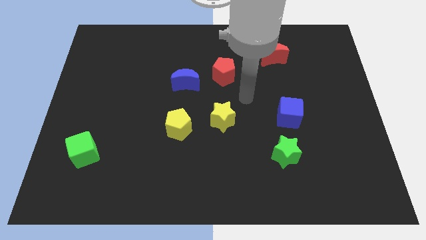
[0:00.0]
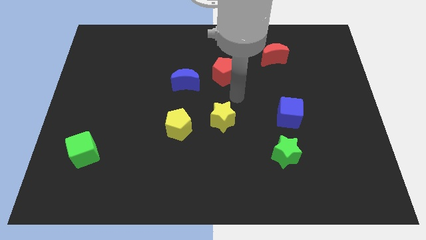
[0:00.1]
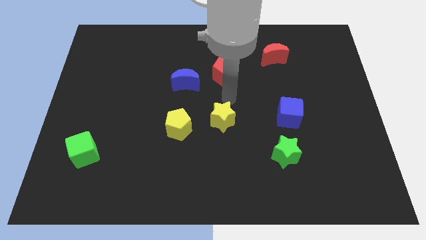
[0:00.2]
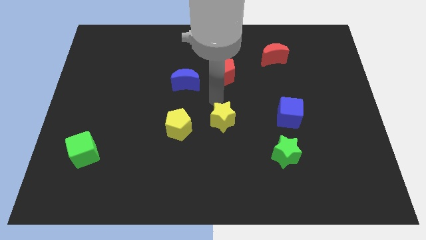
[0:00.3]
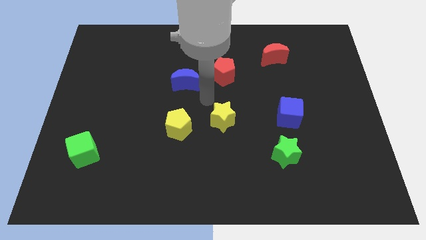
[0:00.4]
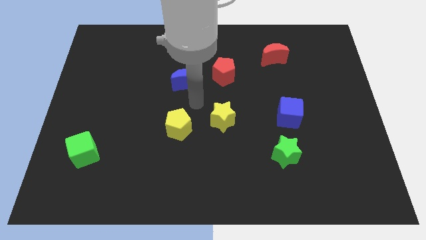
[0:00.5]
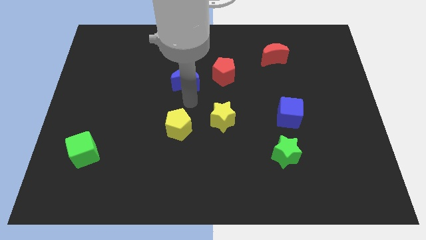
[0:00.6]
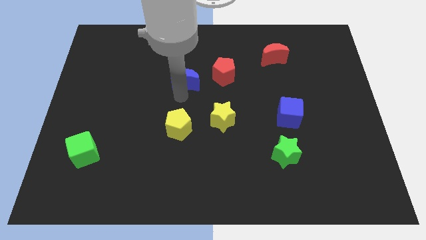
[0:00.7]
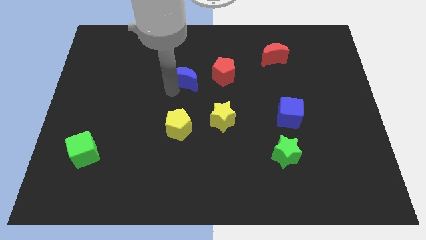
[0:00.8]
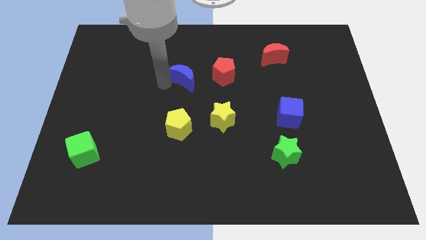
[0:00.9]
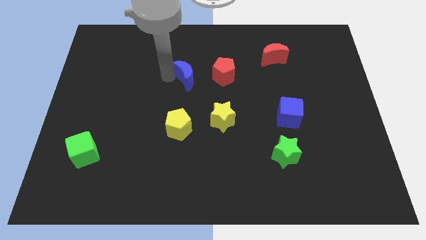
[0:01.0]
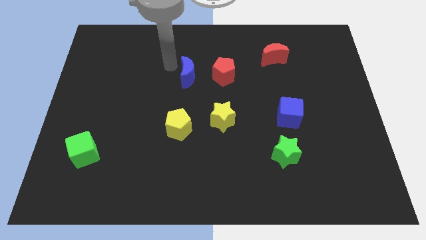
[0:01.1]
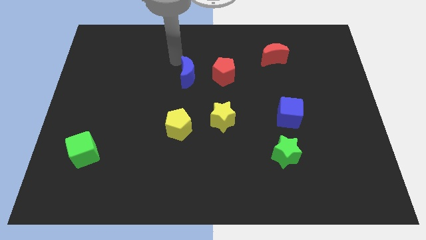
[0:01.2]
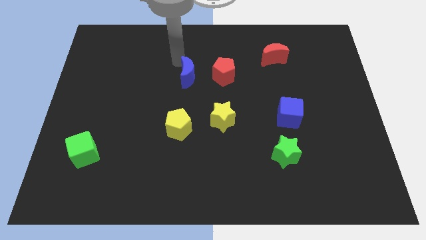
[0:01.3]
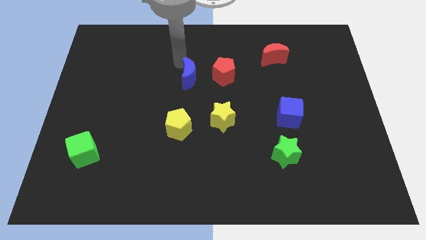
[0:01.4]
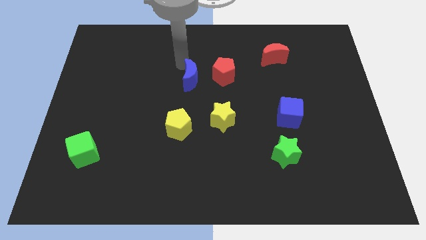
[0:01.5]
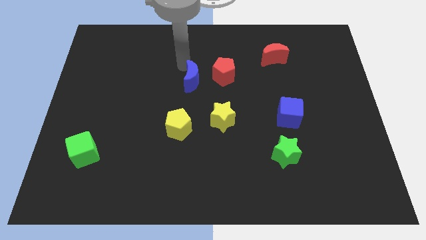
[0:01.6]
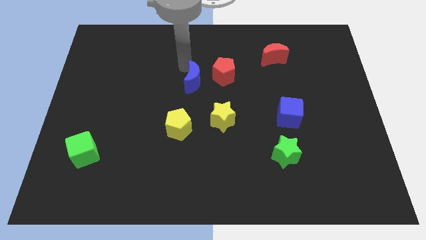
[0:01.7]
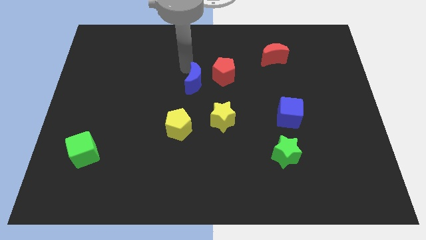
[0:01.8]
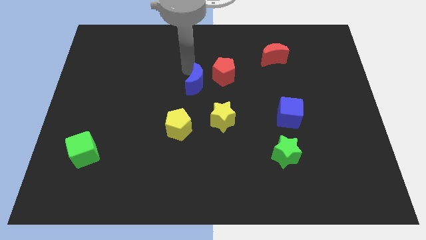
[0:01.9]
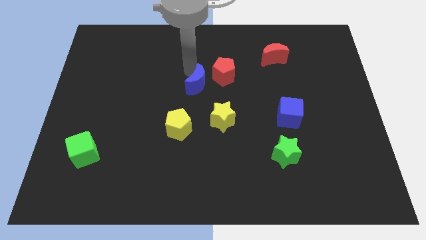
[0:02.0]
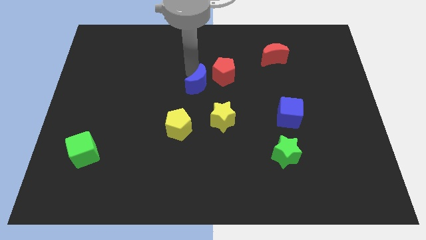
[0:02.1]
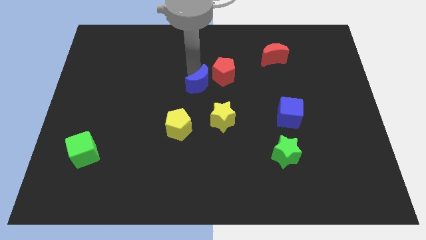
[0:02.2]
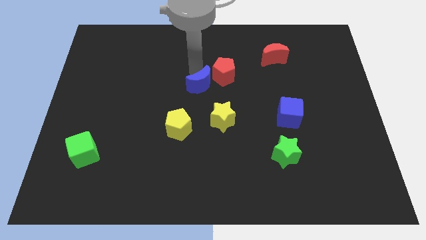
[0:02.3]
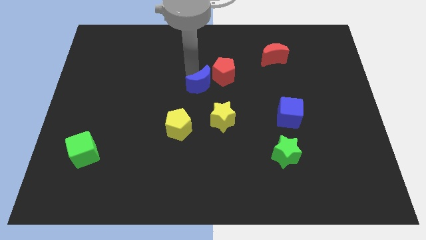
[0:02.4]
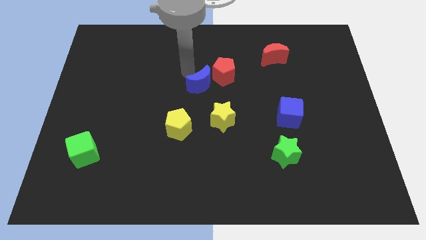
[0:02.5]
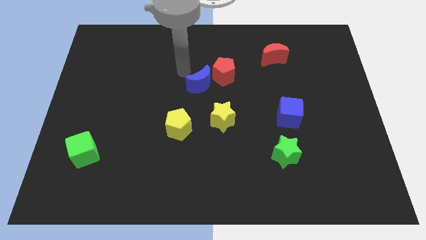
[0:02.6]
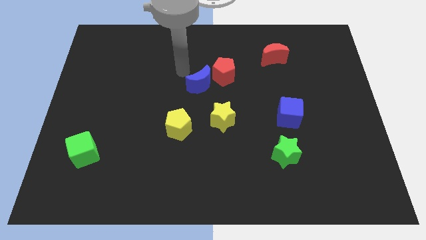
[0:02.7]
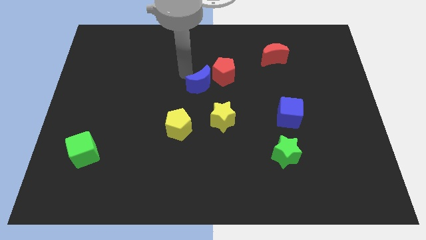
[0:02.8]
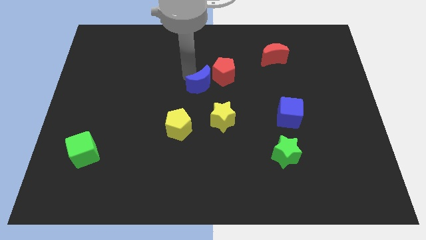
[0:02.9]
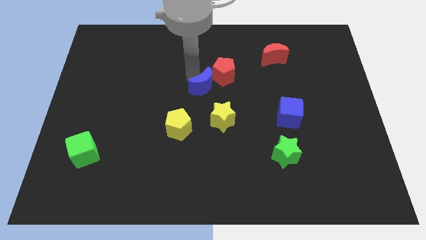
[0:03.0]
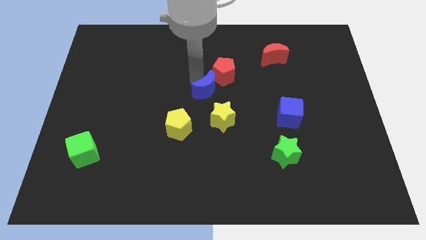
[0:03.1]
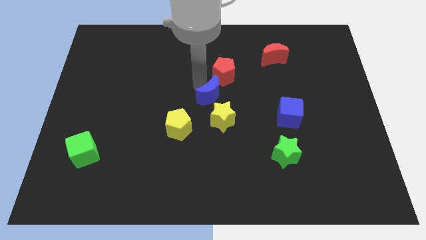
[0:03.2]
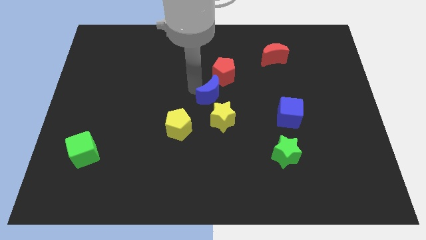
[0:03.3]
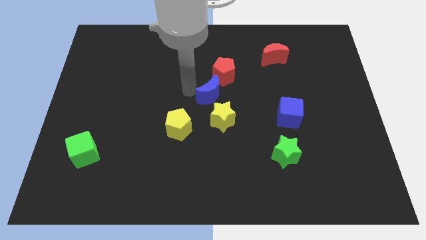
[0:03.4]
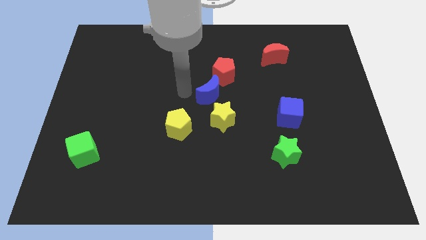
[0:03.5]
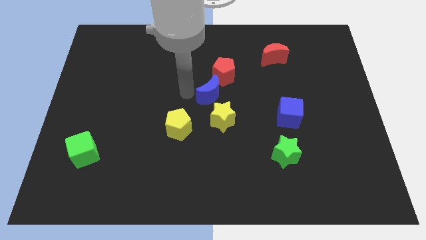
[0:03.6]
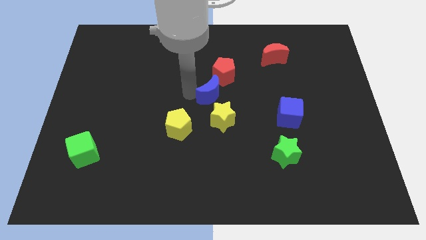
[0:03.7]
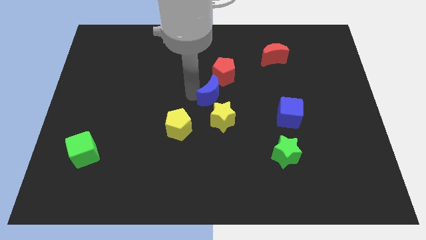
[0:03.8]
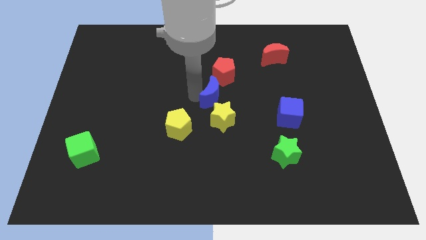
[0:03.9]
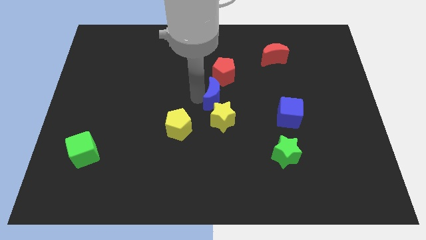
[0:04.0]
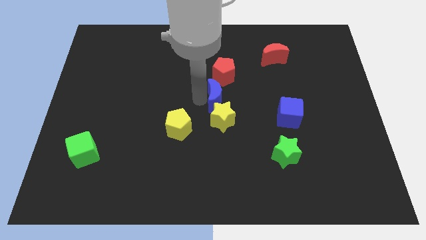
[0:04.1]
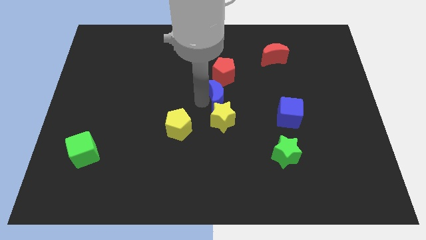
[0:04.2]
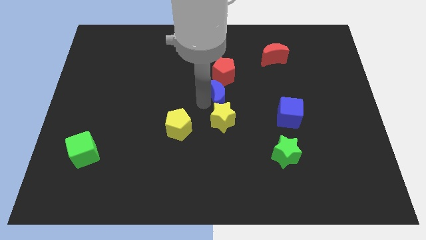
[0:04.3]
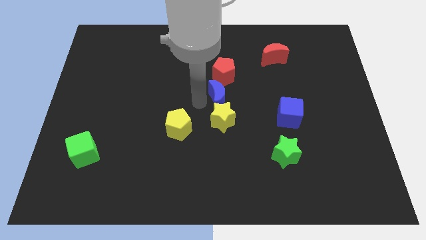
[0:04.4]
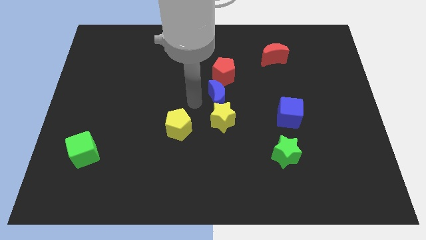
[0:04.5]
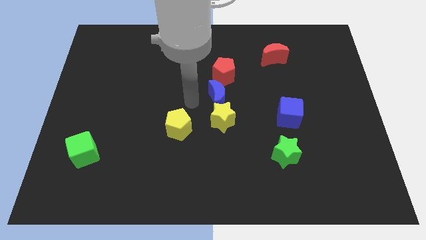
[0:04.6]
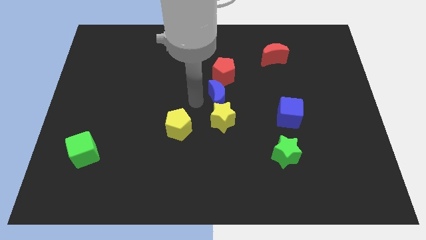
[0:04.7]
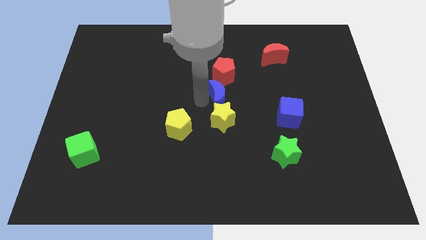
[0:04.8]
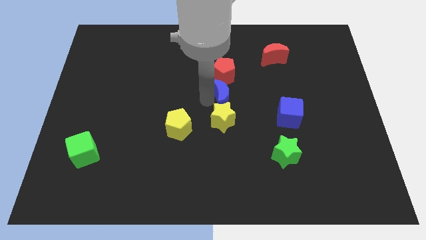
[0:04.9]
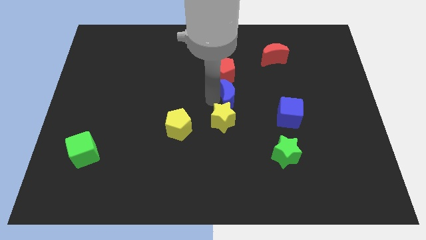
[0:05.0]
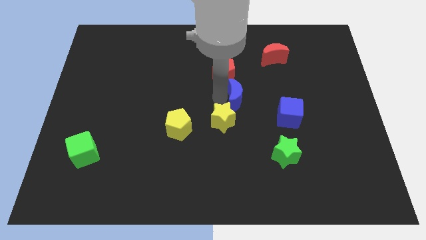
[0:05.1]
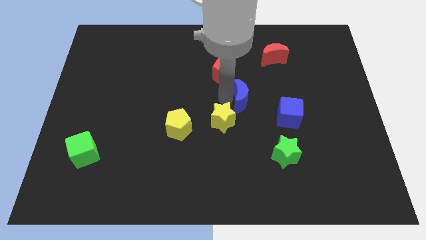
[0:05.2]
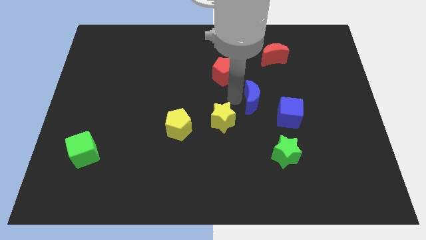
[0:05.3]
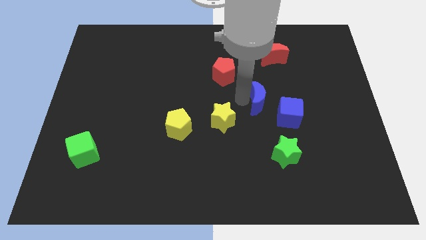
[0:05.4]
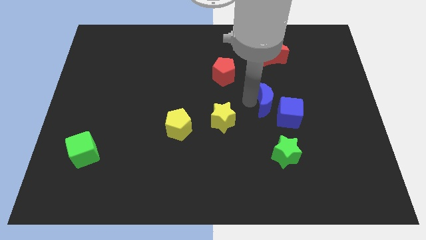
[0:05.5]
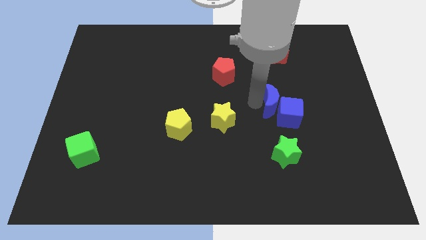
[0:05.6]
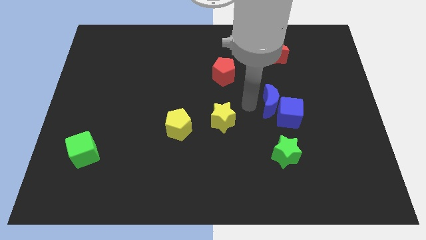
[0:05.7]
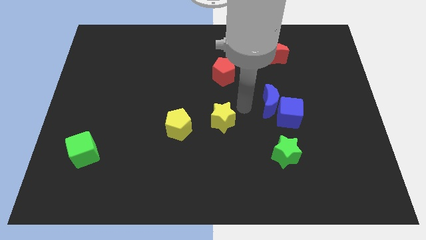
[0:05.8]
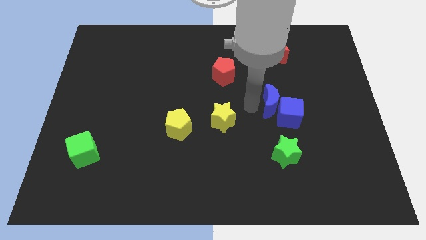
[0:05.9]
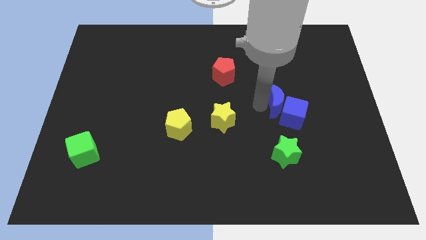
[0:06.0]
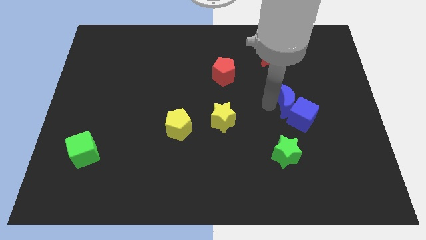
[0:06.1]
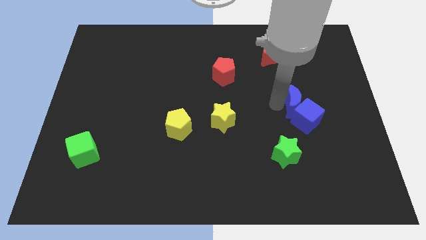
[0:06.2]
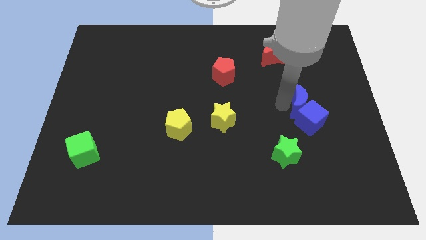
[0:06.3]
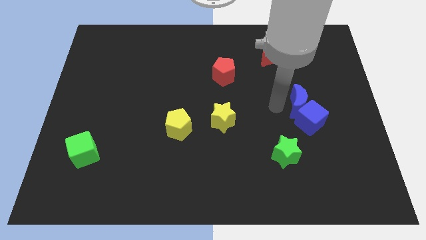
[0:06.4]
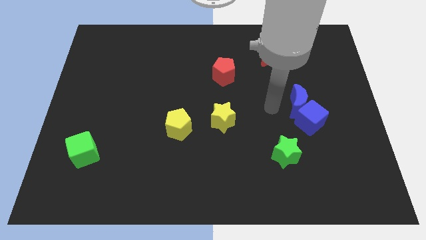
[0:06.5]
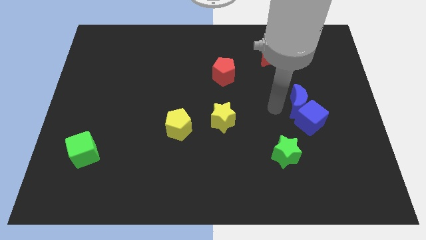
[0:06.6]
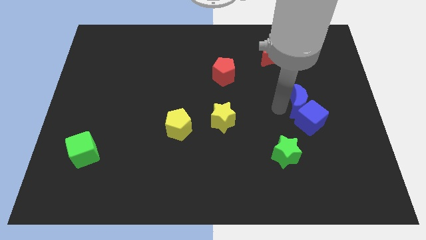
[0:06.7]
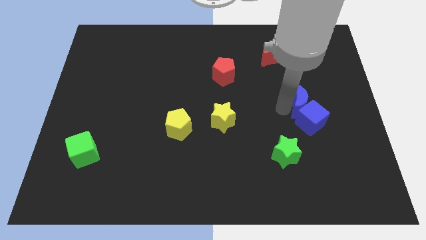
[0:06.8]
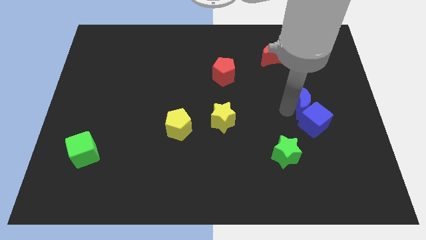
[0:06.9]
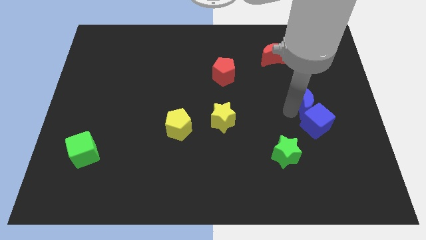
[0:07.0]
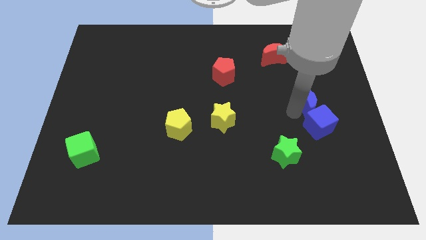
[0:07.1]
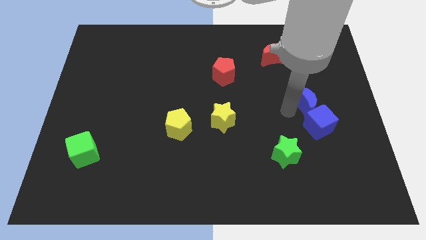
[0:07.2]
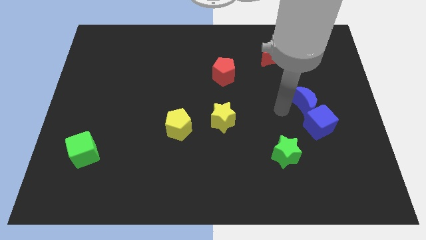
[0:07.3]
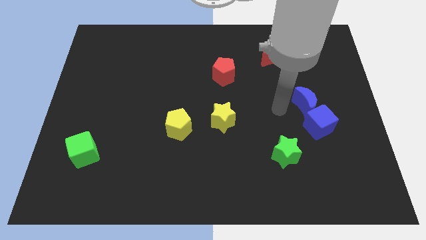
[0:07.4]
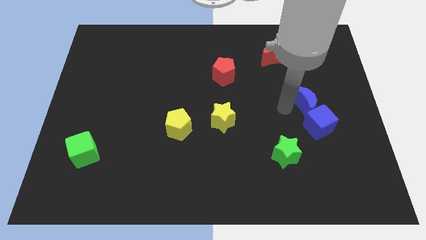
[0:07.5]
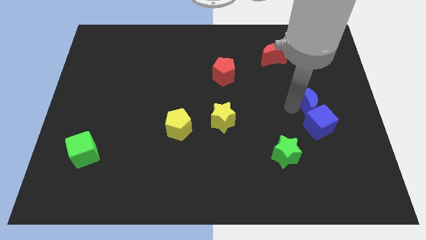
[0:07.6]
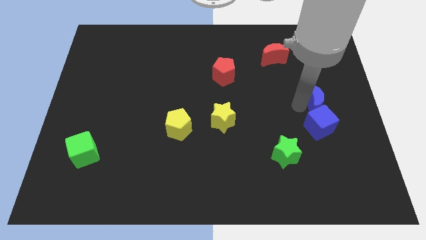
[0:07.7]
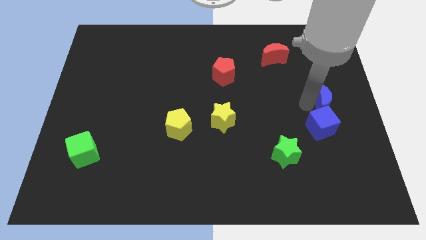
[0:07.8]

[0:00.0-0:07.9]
push the blue moon to the center right
